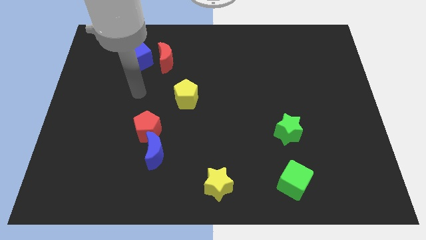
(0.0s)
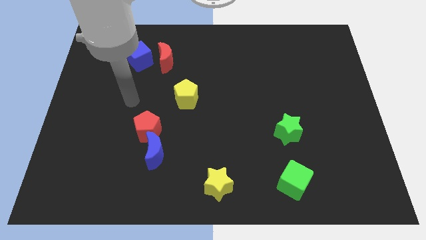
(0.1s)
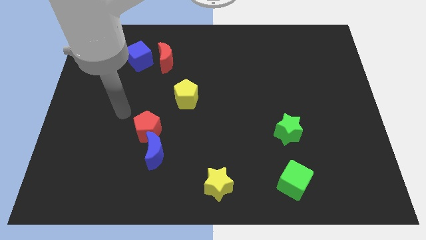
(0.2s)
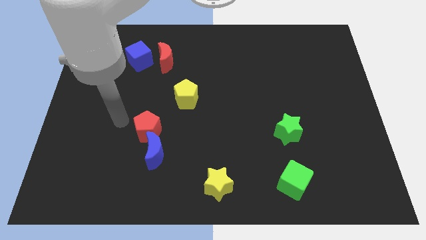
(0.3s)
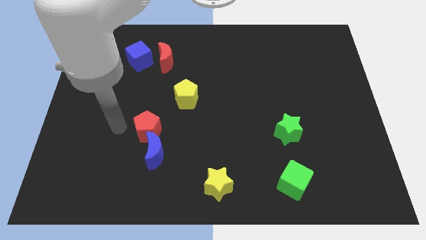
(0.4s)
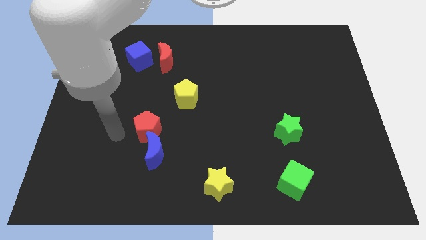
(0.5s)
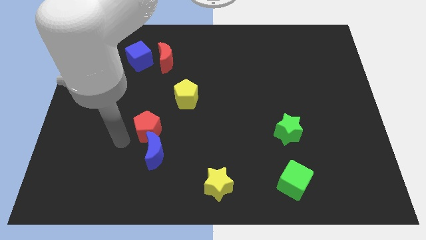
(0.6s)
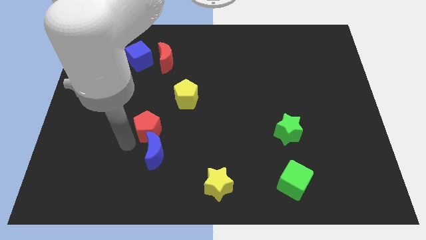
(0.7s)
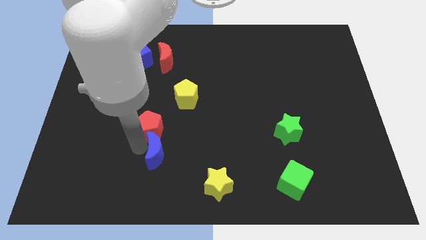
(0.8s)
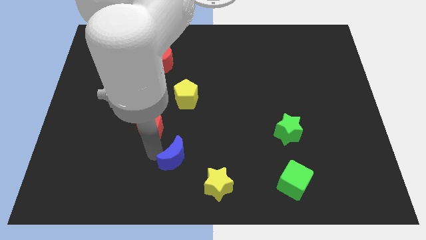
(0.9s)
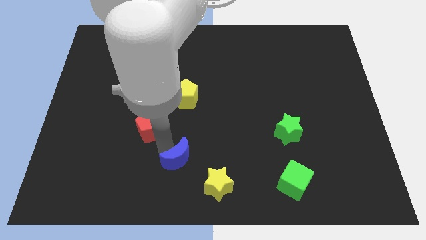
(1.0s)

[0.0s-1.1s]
move the red pentagon away from the blue moon

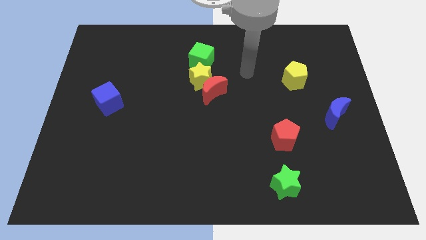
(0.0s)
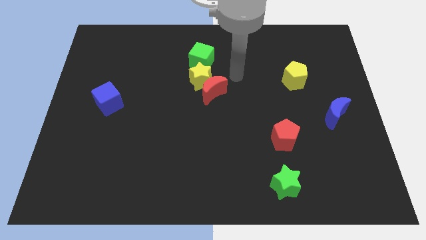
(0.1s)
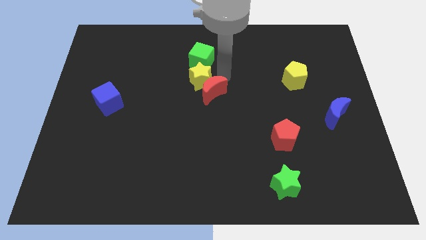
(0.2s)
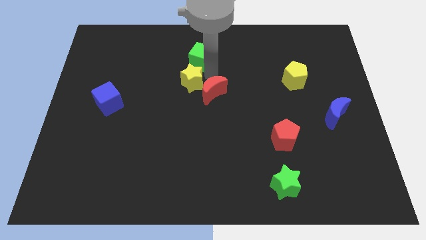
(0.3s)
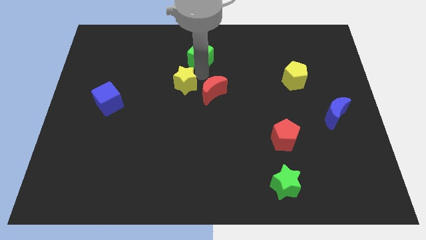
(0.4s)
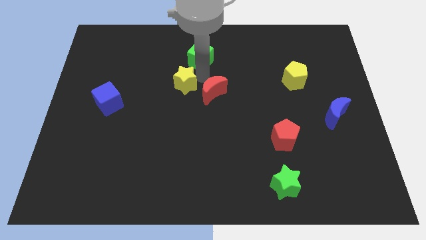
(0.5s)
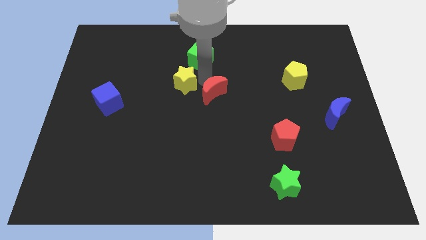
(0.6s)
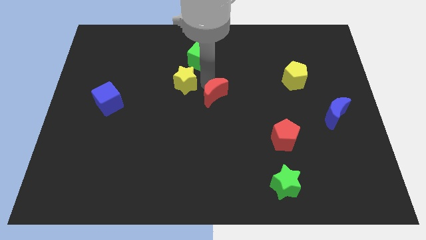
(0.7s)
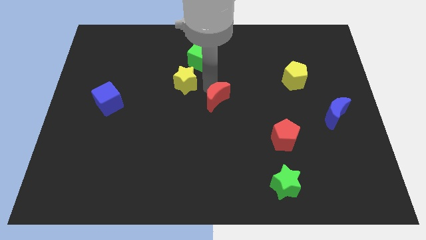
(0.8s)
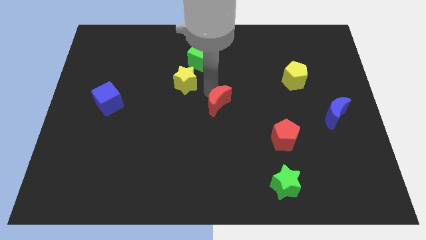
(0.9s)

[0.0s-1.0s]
move the red moon away from the yellow star

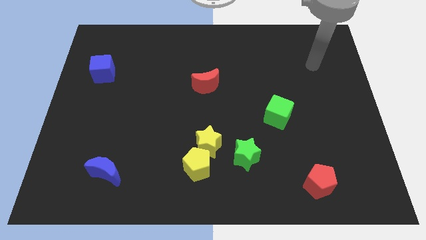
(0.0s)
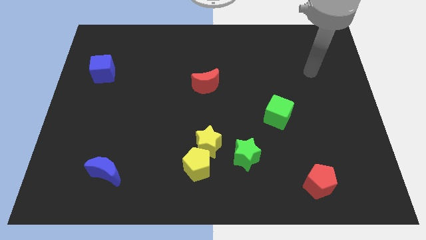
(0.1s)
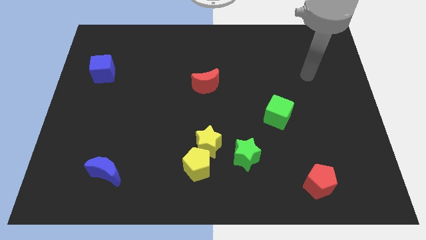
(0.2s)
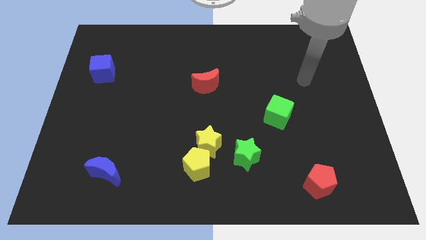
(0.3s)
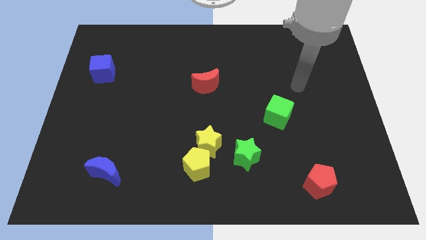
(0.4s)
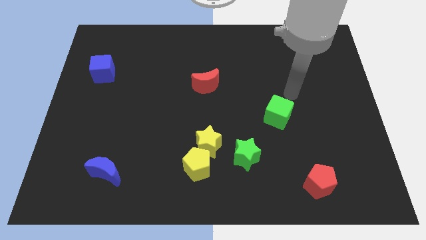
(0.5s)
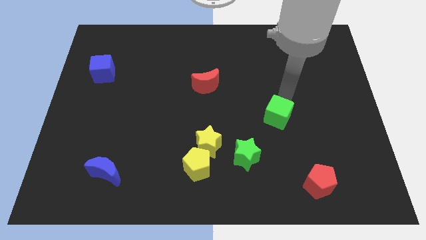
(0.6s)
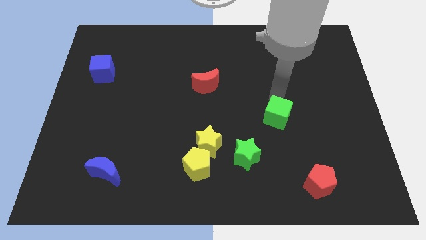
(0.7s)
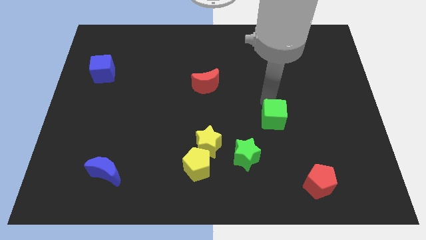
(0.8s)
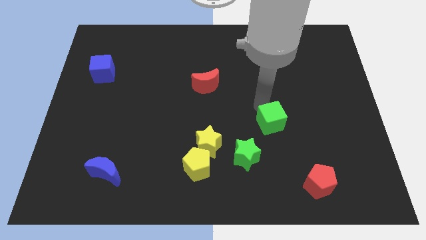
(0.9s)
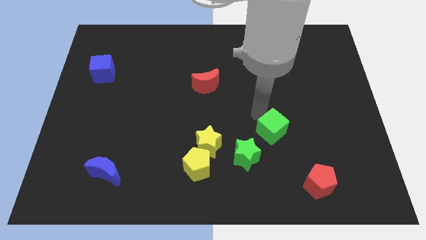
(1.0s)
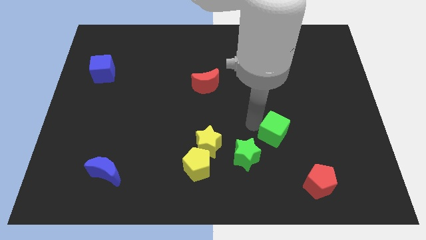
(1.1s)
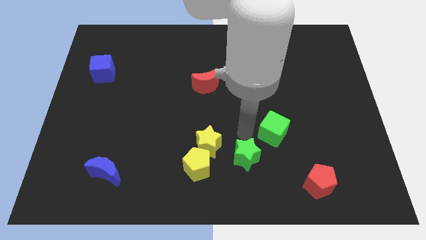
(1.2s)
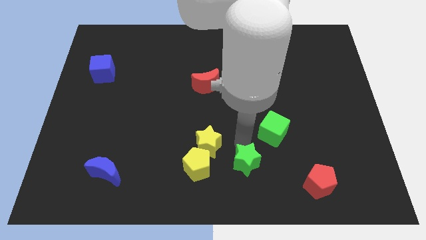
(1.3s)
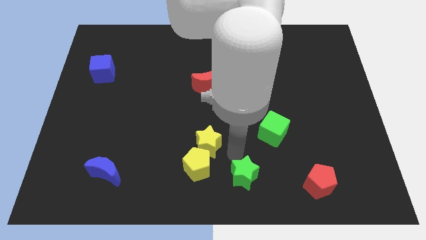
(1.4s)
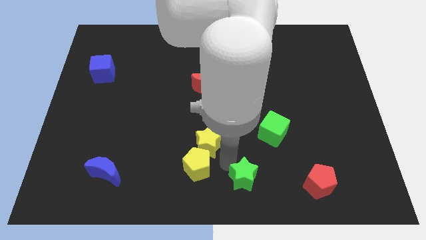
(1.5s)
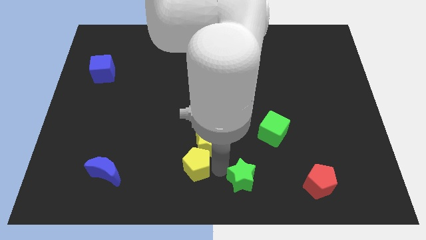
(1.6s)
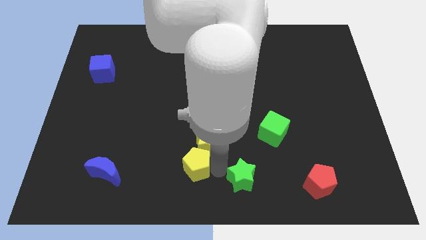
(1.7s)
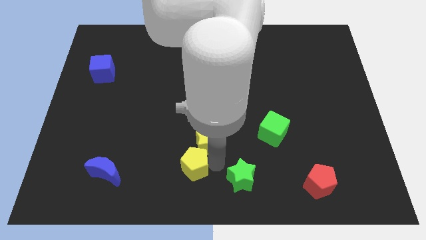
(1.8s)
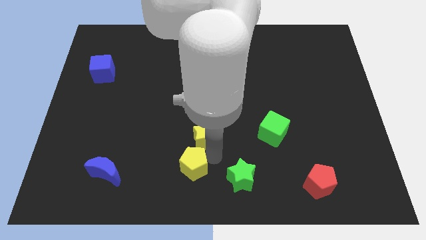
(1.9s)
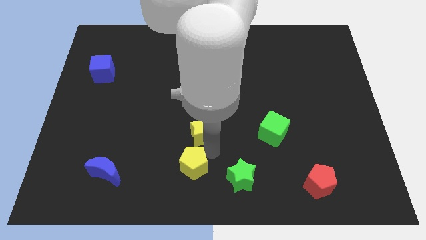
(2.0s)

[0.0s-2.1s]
move the yellow star away from the yellow pentagon and green star

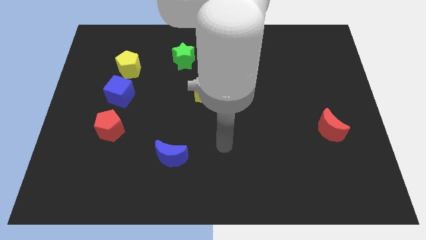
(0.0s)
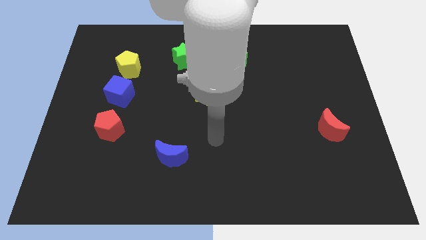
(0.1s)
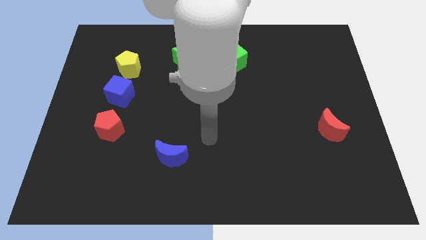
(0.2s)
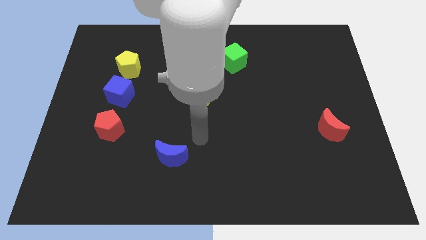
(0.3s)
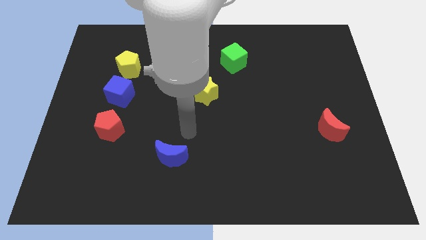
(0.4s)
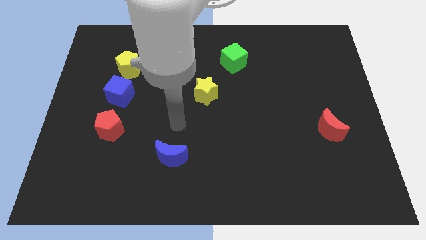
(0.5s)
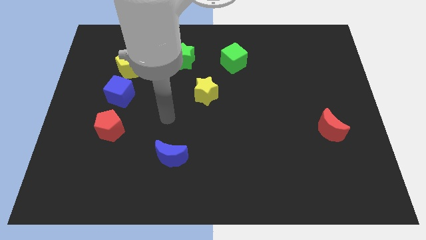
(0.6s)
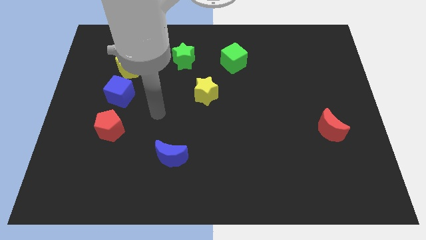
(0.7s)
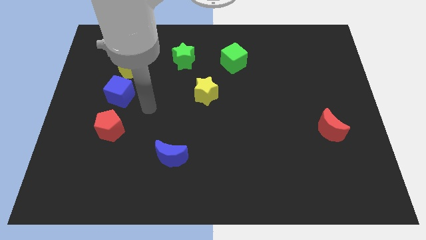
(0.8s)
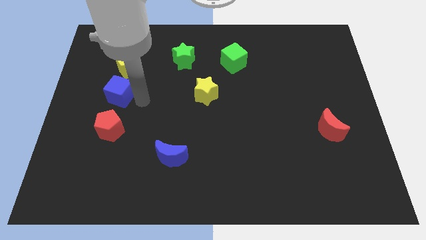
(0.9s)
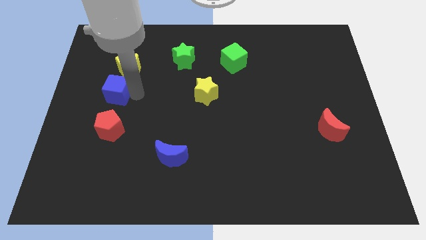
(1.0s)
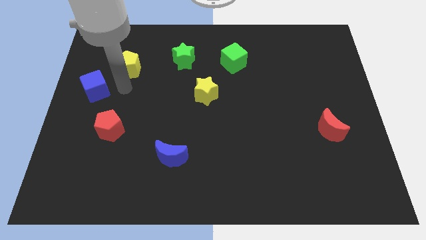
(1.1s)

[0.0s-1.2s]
separate the yellow pentagon from the blue cube

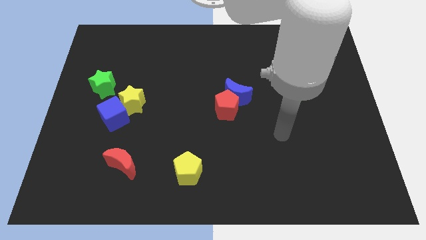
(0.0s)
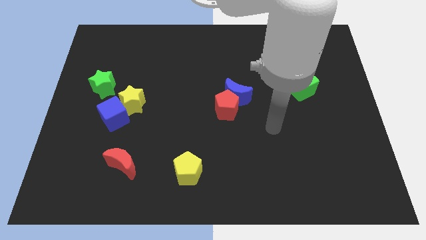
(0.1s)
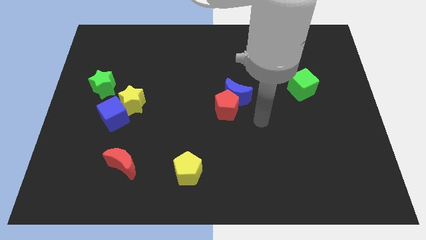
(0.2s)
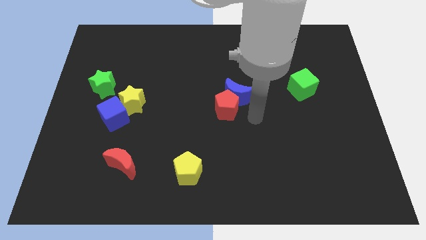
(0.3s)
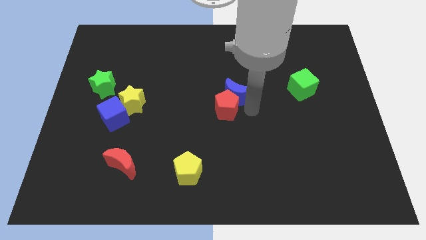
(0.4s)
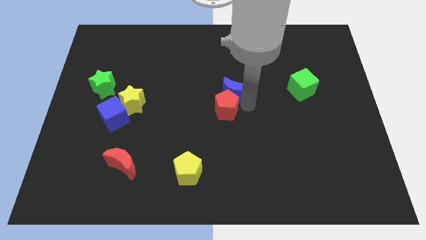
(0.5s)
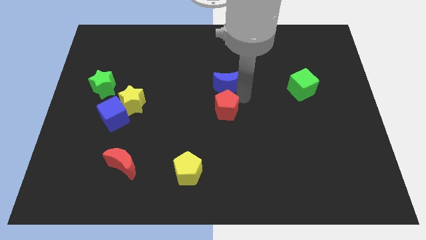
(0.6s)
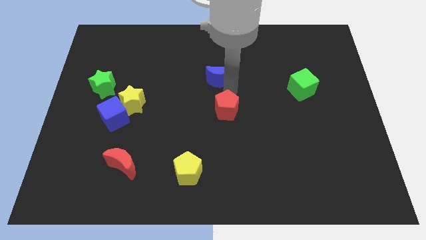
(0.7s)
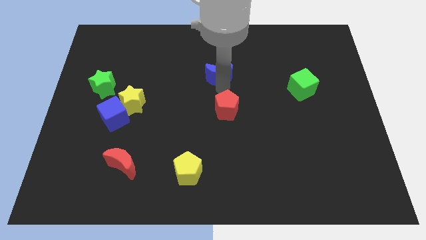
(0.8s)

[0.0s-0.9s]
separate the red pentagon from the blue moon

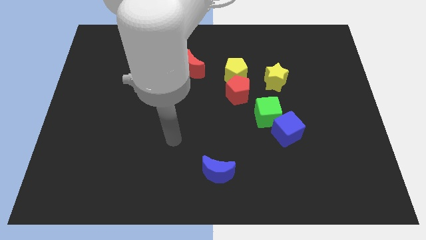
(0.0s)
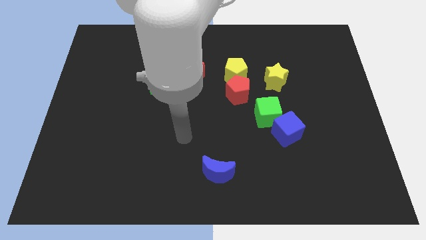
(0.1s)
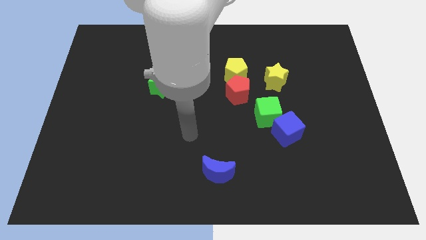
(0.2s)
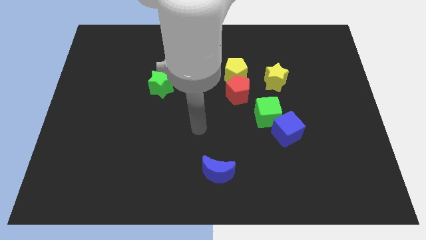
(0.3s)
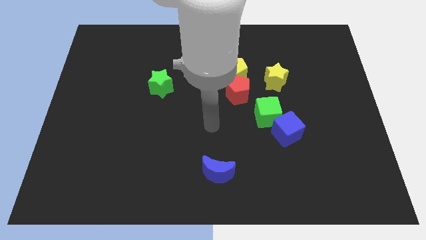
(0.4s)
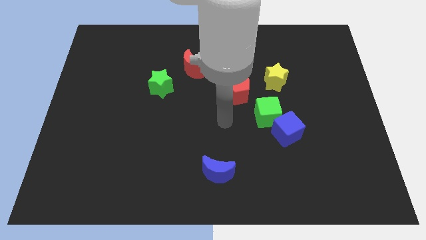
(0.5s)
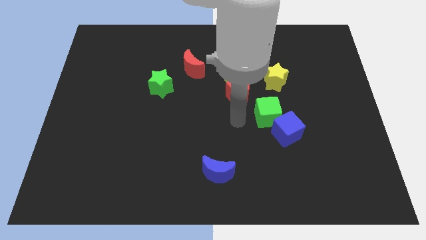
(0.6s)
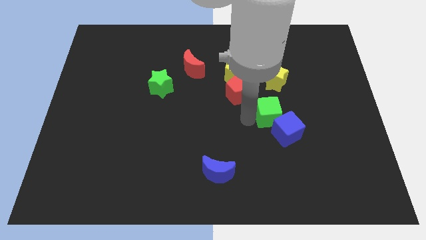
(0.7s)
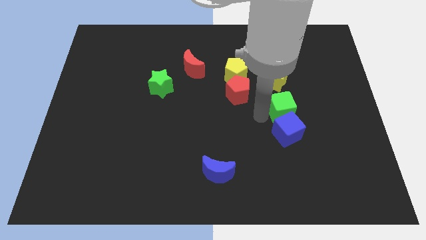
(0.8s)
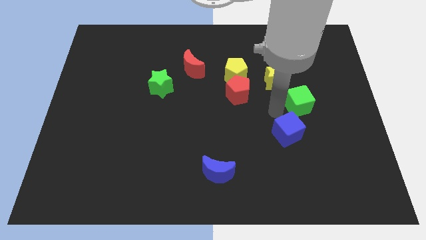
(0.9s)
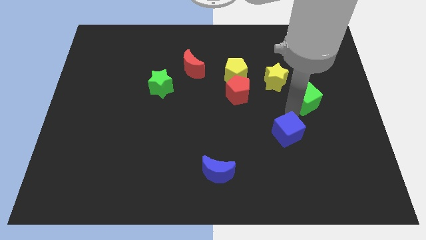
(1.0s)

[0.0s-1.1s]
move the blue cube away from the green cube

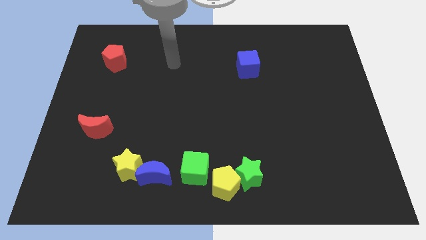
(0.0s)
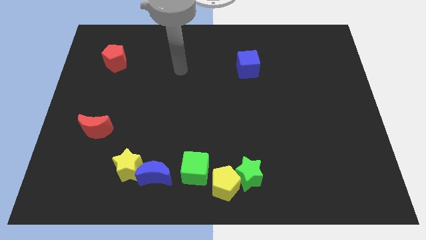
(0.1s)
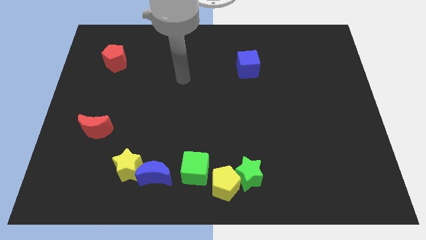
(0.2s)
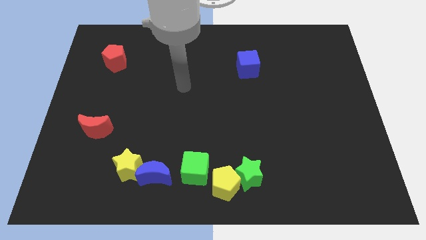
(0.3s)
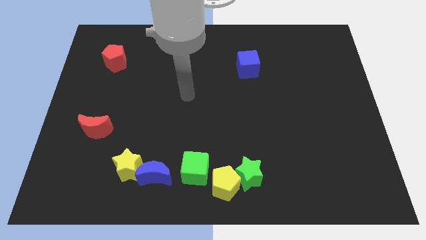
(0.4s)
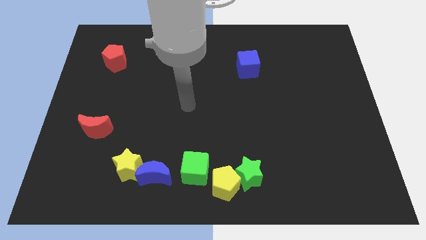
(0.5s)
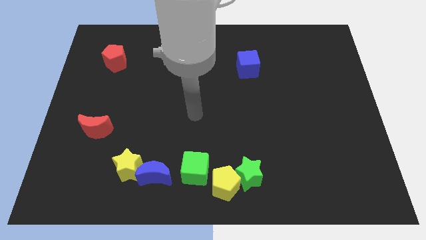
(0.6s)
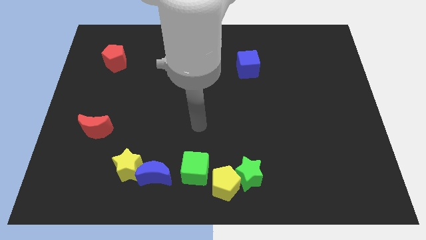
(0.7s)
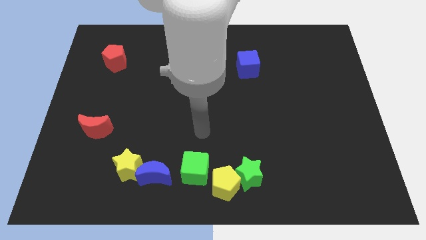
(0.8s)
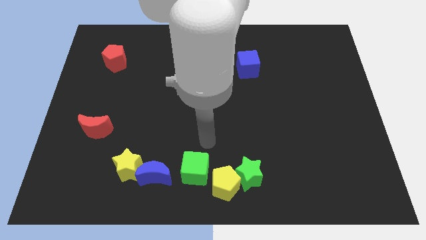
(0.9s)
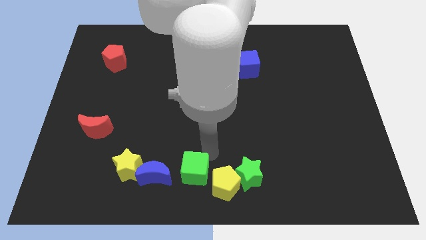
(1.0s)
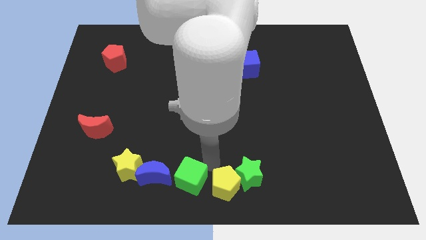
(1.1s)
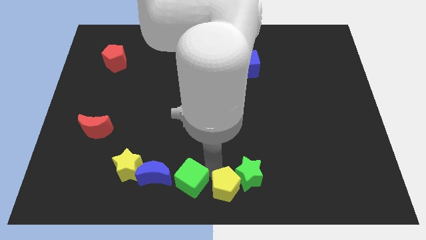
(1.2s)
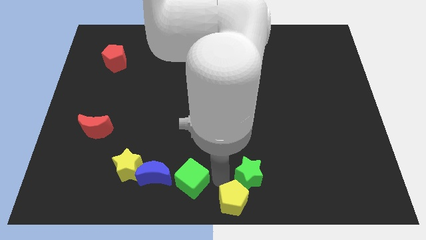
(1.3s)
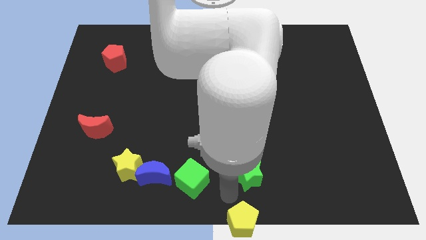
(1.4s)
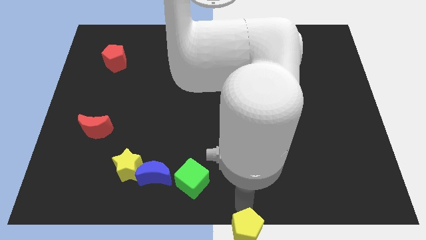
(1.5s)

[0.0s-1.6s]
separate the green star from the yellow pentagon

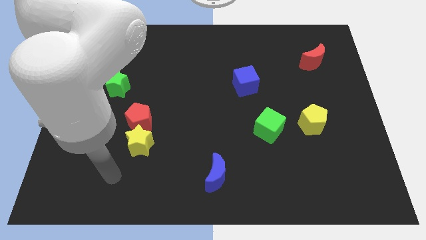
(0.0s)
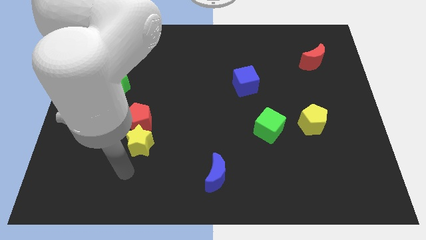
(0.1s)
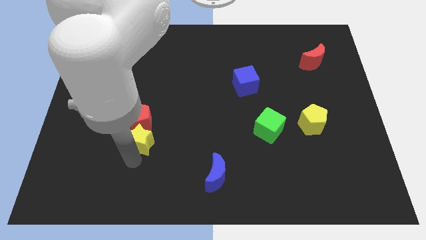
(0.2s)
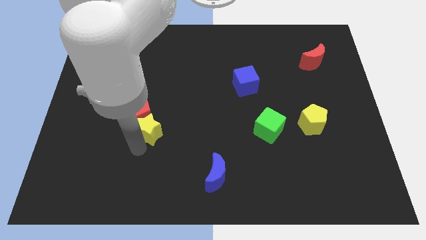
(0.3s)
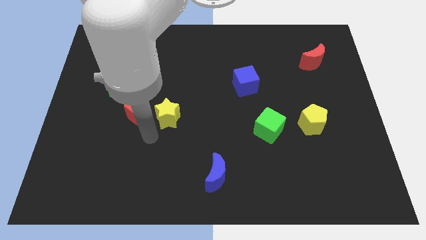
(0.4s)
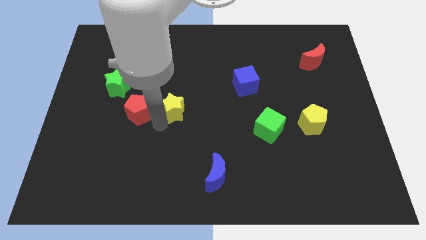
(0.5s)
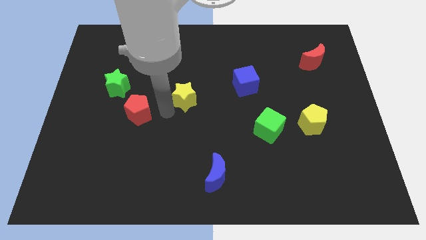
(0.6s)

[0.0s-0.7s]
pull the red pentagon apart from the yellow star
